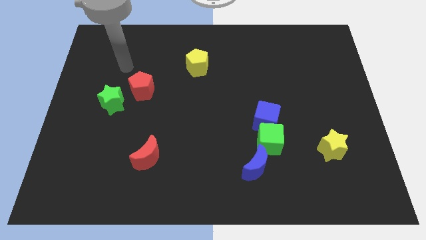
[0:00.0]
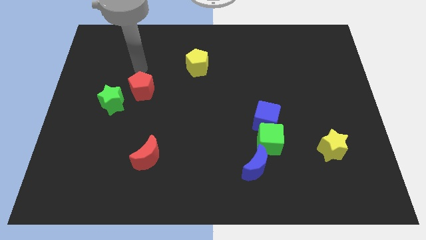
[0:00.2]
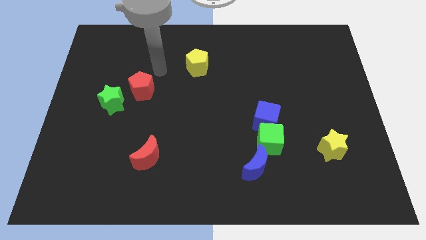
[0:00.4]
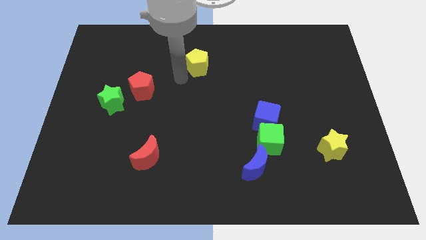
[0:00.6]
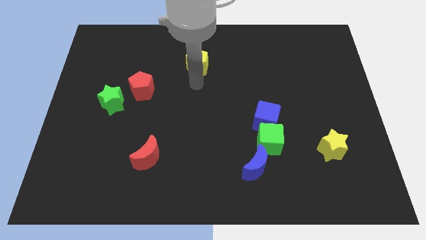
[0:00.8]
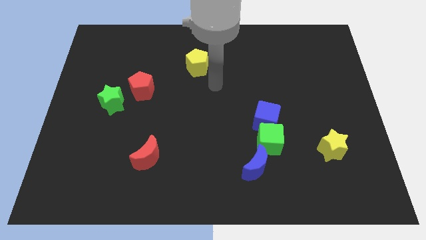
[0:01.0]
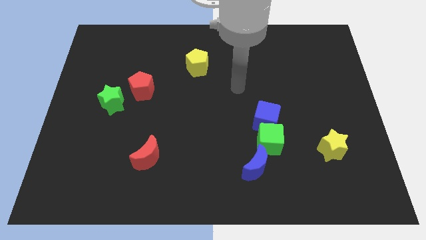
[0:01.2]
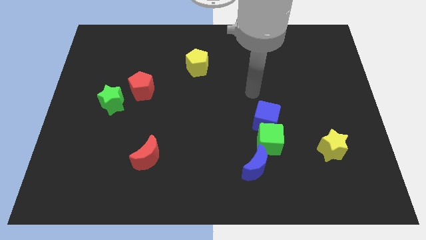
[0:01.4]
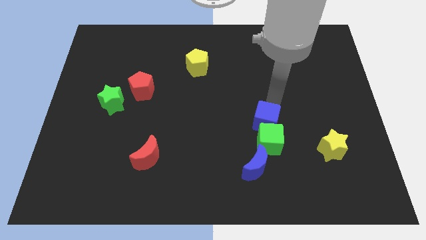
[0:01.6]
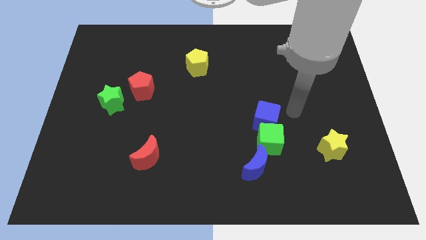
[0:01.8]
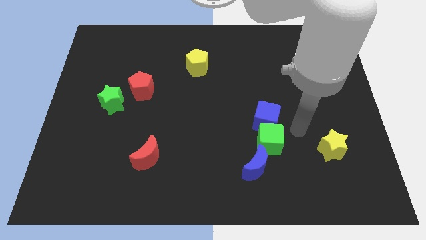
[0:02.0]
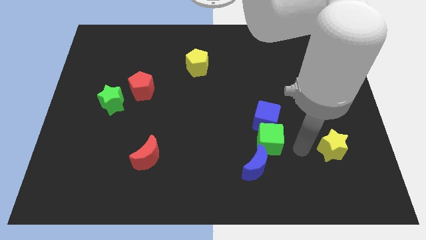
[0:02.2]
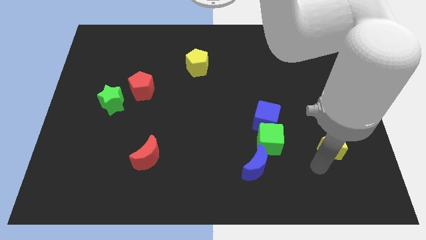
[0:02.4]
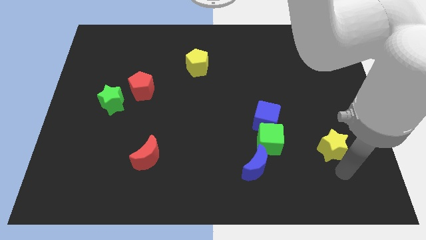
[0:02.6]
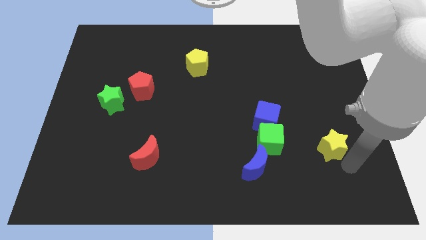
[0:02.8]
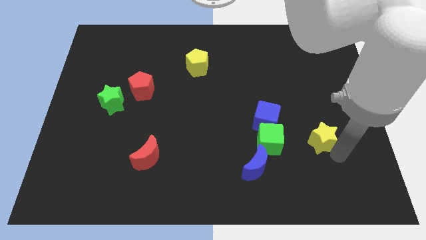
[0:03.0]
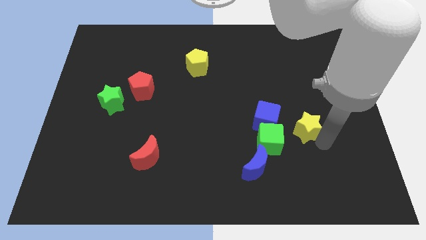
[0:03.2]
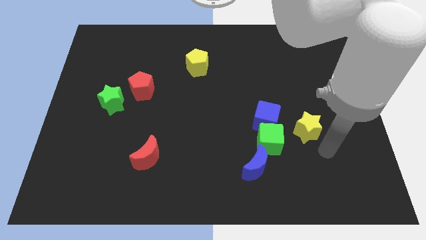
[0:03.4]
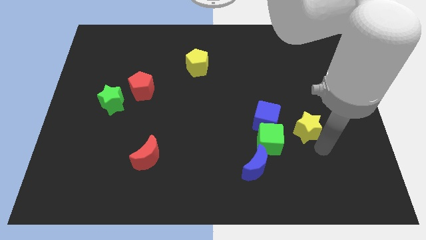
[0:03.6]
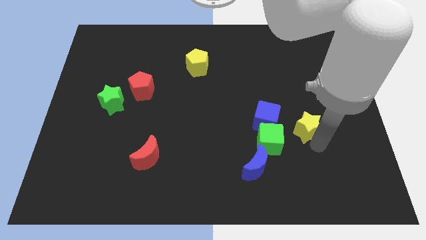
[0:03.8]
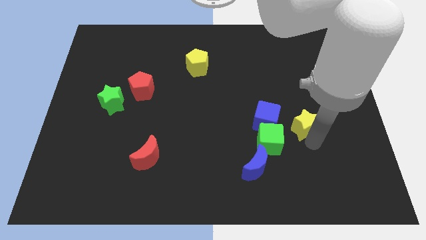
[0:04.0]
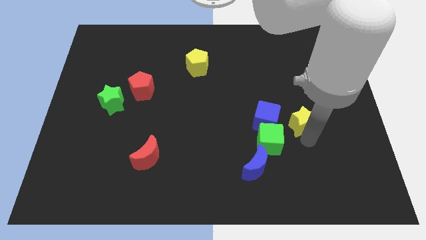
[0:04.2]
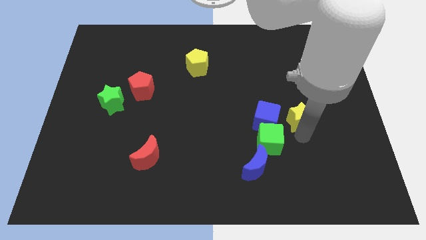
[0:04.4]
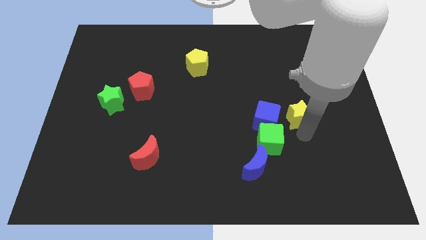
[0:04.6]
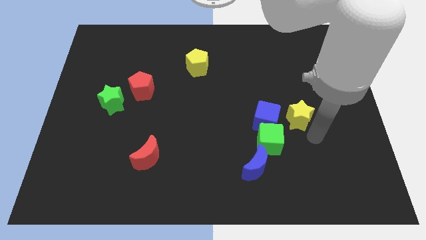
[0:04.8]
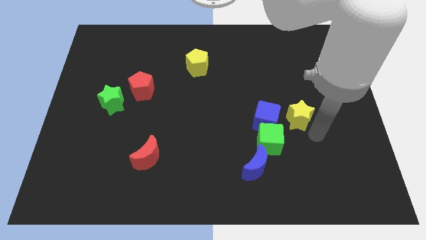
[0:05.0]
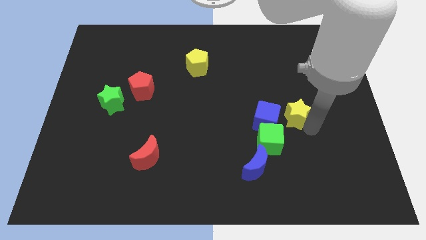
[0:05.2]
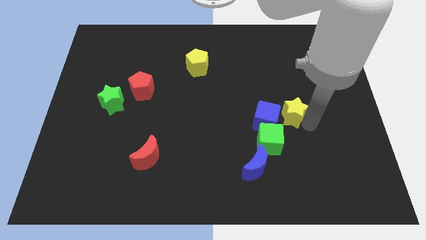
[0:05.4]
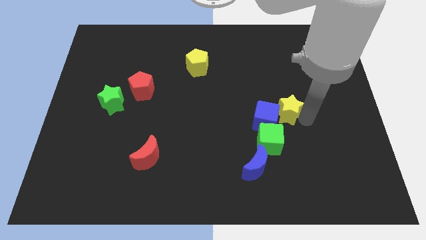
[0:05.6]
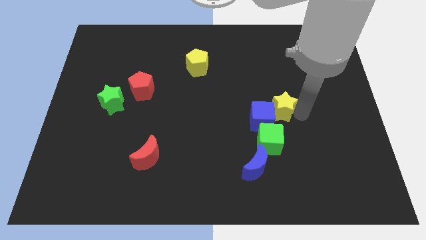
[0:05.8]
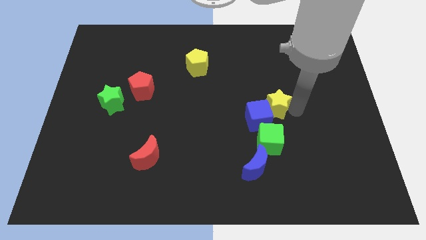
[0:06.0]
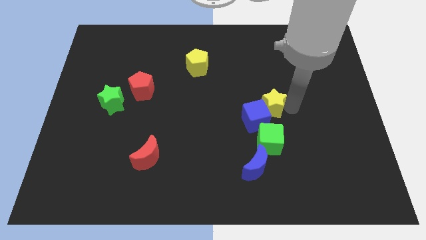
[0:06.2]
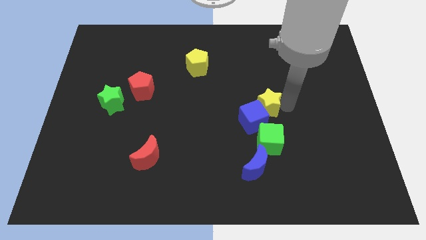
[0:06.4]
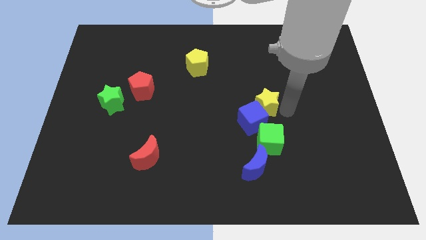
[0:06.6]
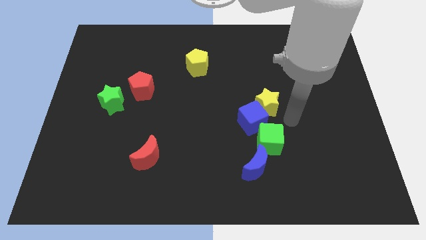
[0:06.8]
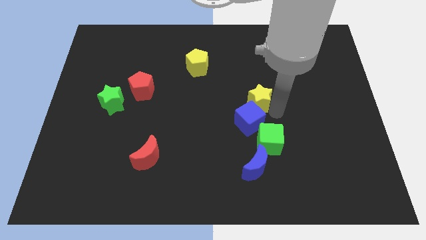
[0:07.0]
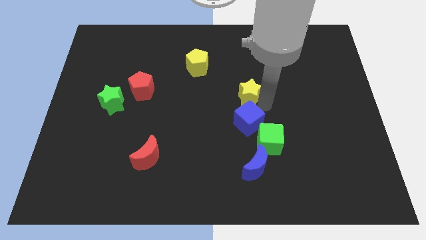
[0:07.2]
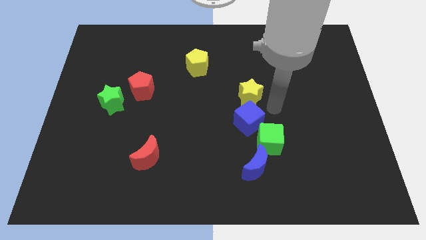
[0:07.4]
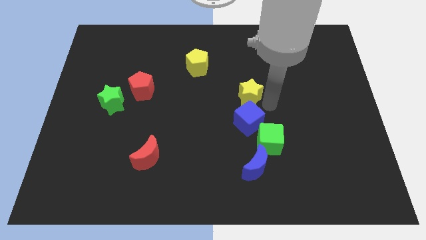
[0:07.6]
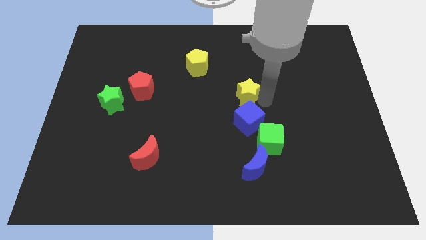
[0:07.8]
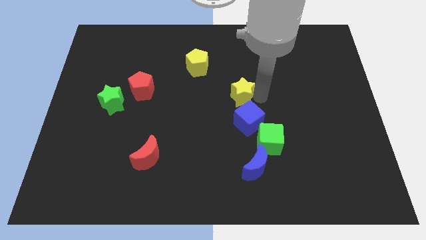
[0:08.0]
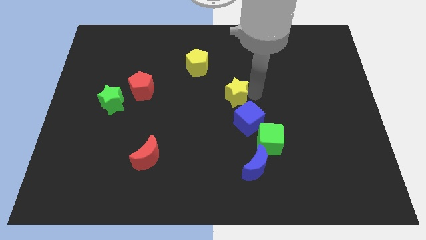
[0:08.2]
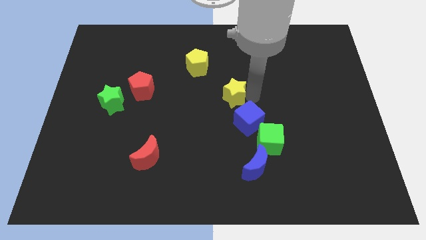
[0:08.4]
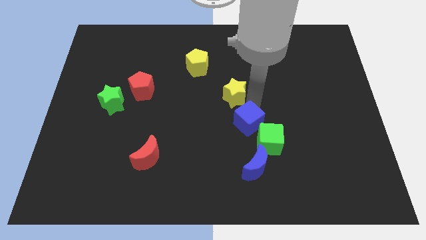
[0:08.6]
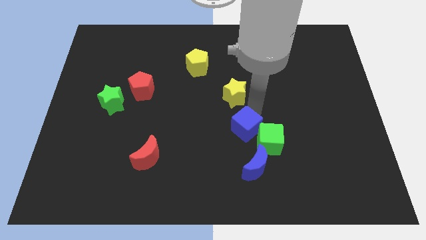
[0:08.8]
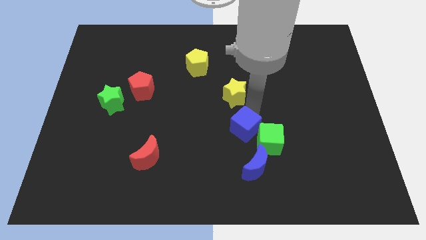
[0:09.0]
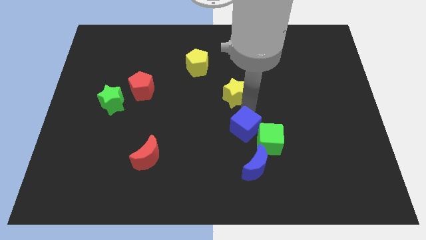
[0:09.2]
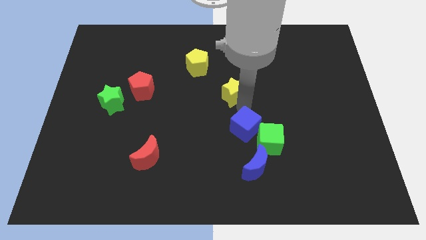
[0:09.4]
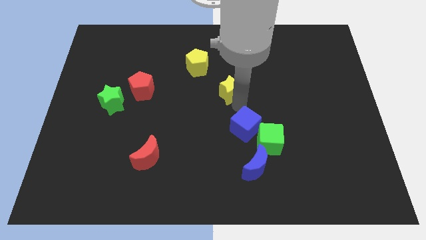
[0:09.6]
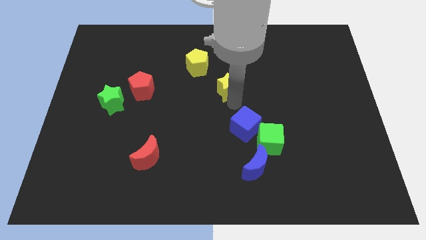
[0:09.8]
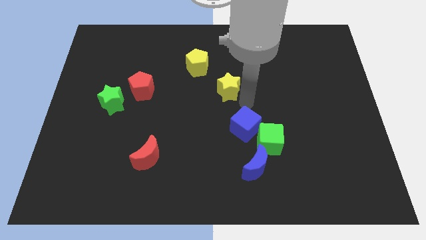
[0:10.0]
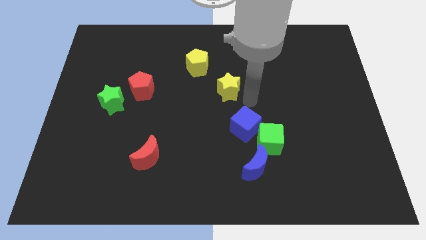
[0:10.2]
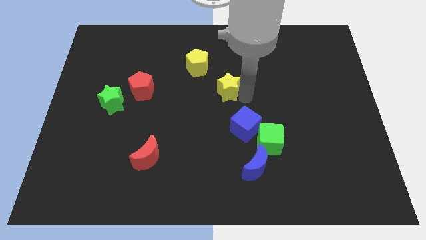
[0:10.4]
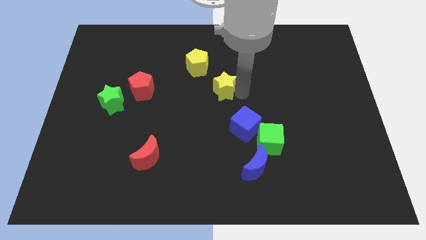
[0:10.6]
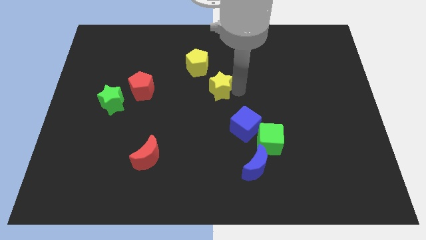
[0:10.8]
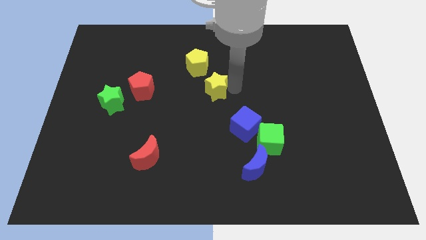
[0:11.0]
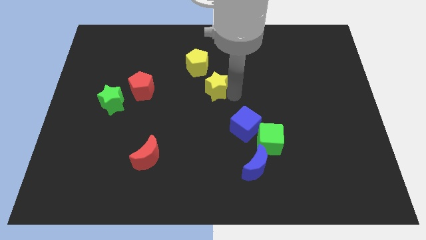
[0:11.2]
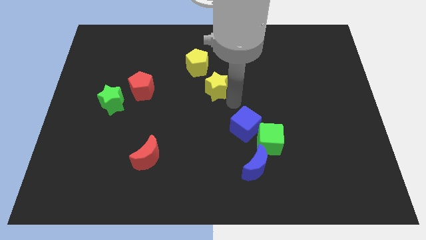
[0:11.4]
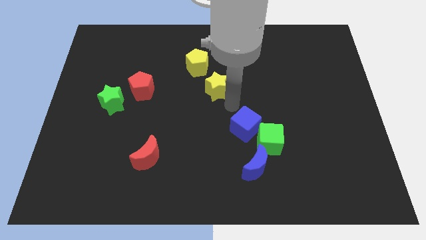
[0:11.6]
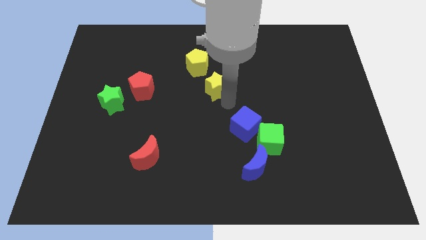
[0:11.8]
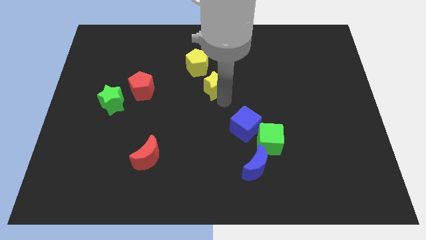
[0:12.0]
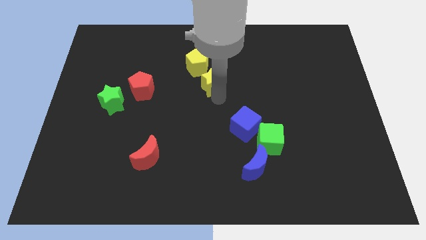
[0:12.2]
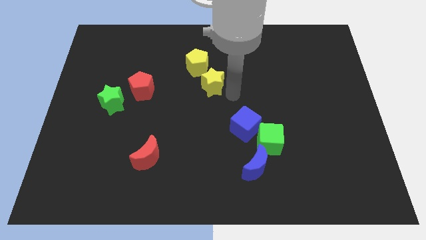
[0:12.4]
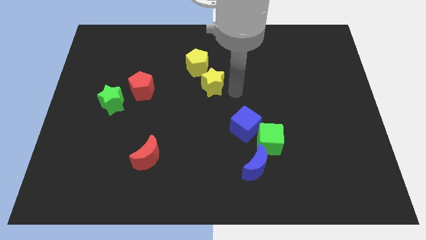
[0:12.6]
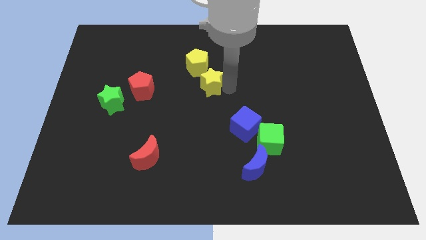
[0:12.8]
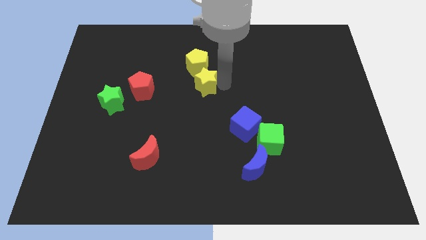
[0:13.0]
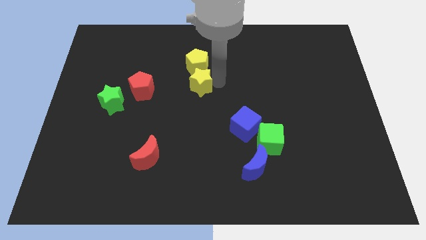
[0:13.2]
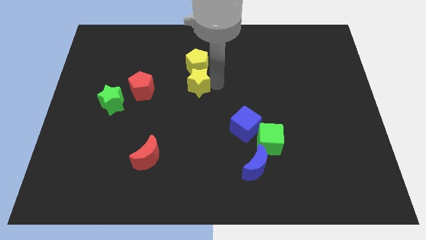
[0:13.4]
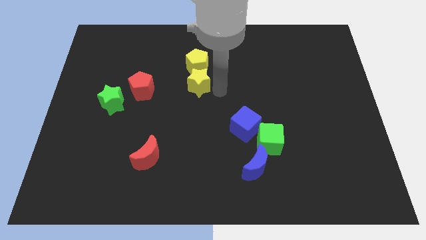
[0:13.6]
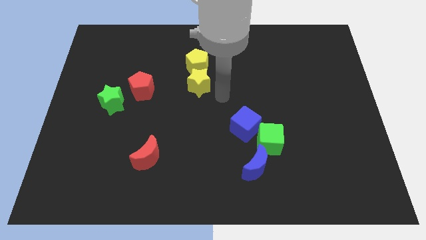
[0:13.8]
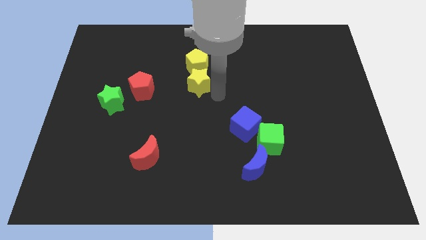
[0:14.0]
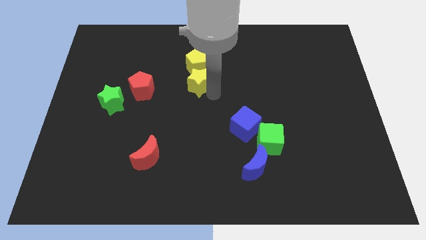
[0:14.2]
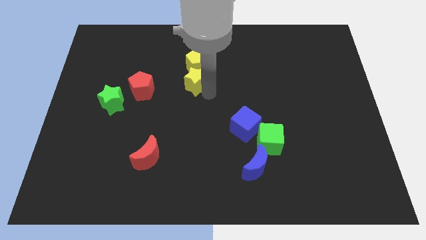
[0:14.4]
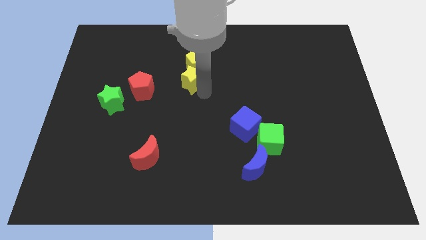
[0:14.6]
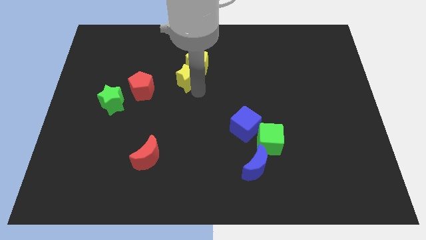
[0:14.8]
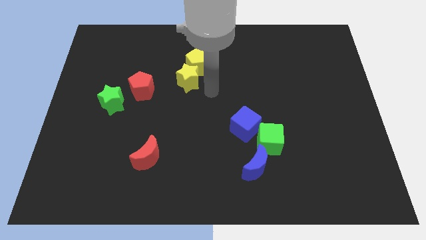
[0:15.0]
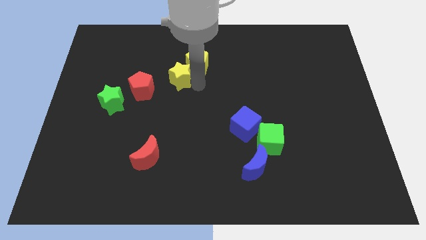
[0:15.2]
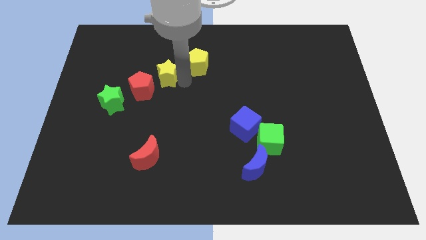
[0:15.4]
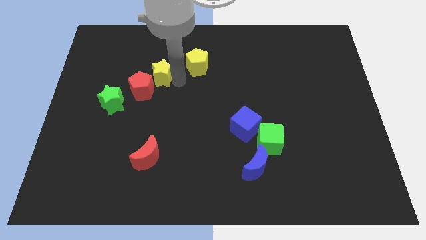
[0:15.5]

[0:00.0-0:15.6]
push the yellow star above the red pentagon
